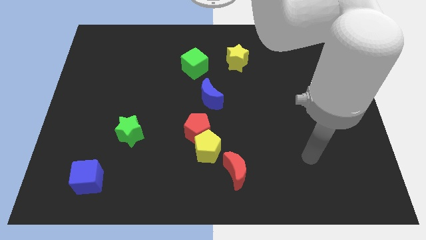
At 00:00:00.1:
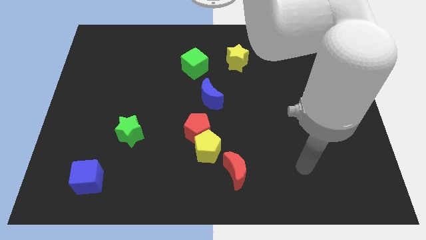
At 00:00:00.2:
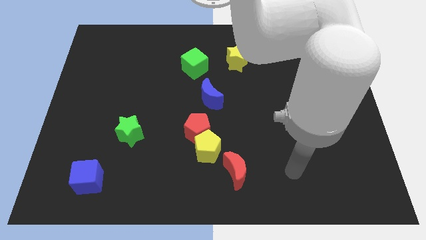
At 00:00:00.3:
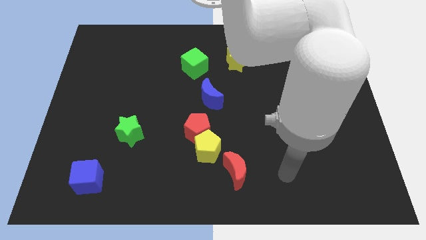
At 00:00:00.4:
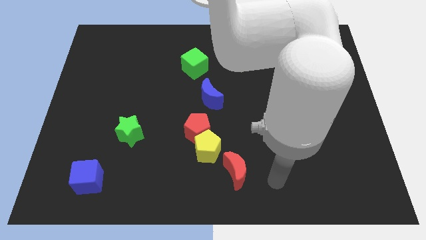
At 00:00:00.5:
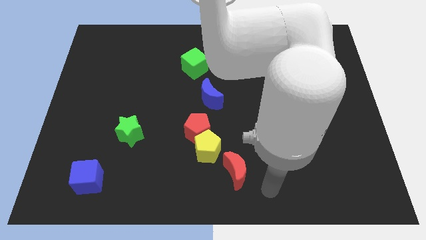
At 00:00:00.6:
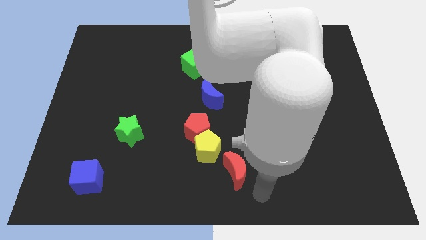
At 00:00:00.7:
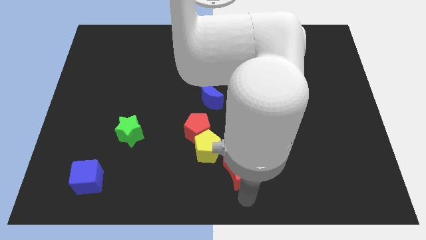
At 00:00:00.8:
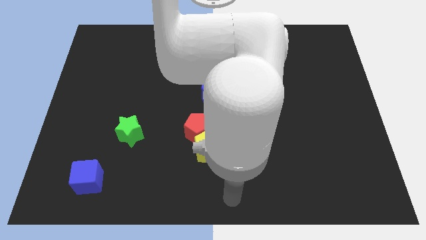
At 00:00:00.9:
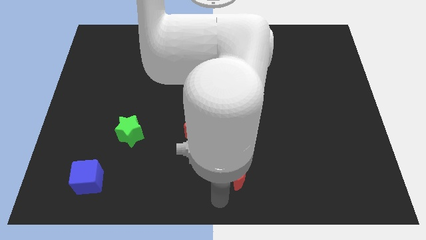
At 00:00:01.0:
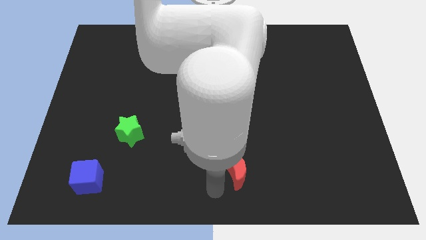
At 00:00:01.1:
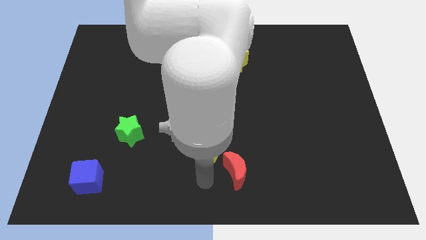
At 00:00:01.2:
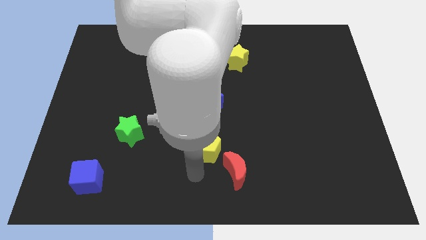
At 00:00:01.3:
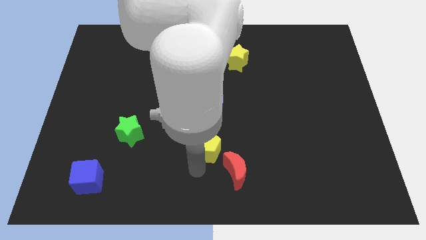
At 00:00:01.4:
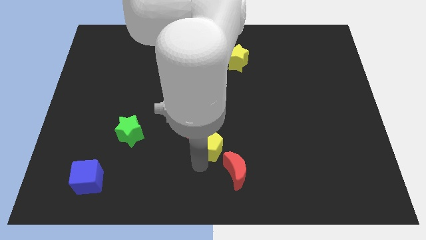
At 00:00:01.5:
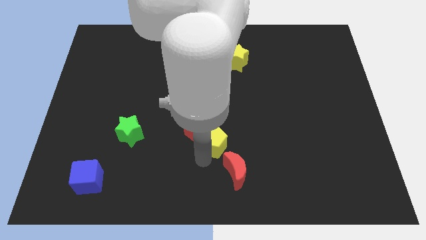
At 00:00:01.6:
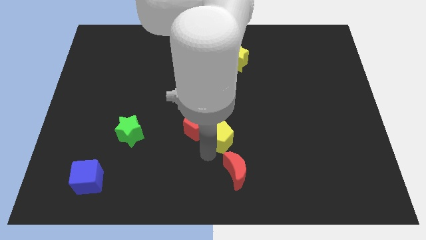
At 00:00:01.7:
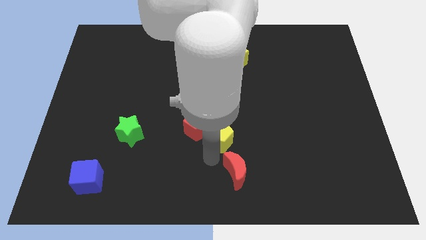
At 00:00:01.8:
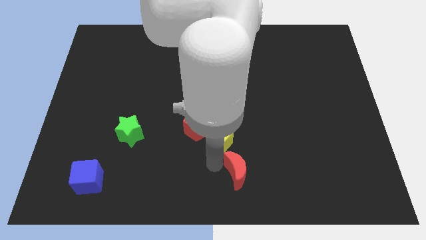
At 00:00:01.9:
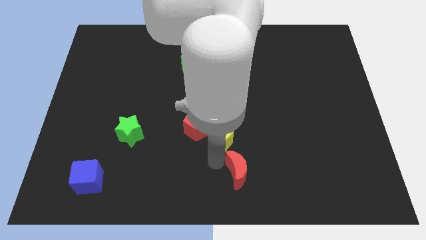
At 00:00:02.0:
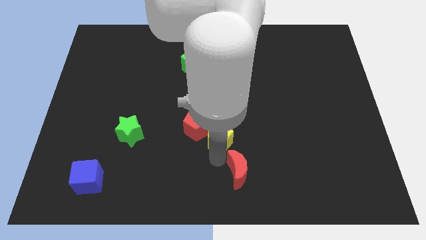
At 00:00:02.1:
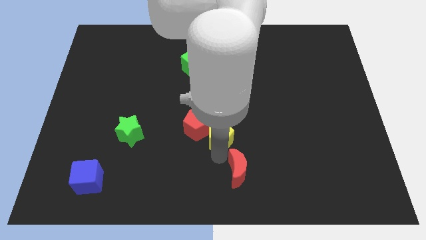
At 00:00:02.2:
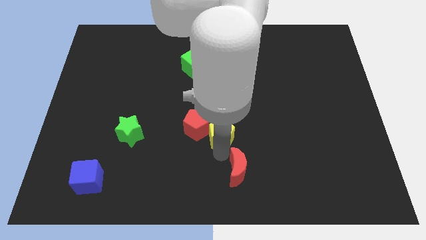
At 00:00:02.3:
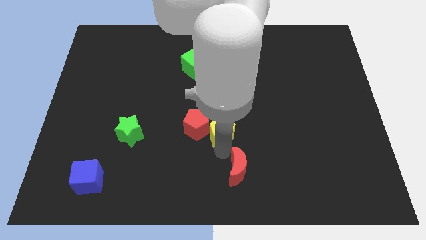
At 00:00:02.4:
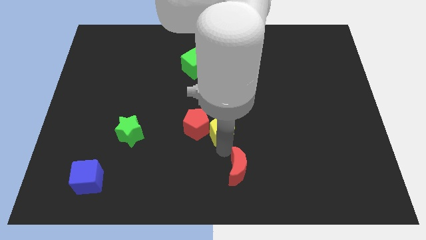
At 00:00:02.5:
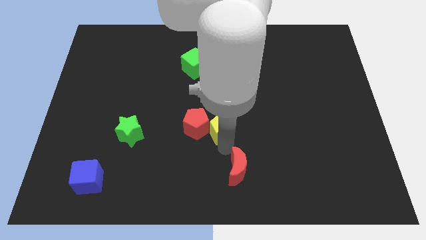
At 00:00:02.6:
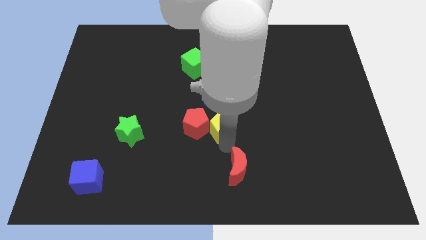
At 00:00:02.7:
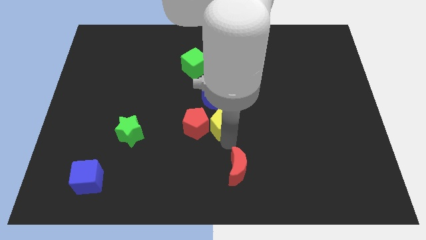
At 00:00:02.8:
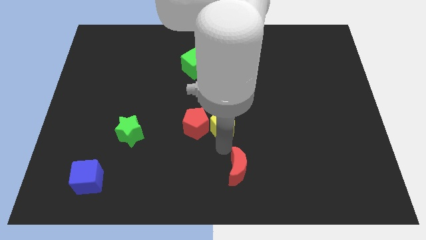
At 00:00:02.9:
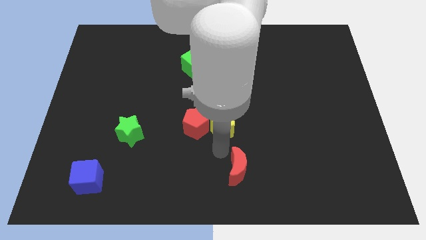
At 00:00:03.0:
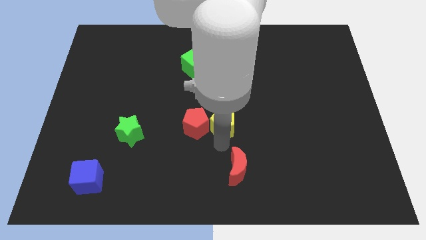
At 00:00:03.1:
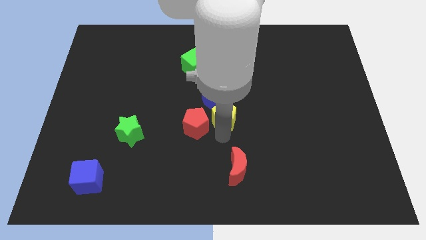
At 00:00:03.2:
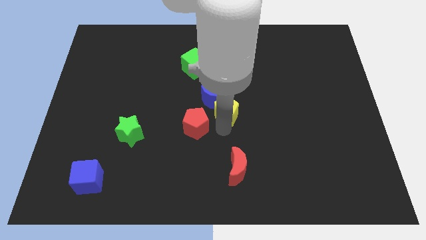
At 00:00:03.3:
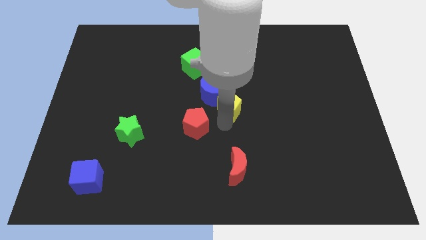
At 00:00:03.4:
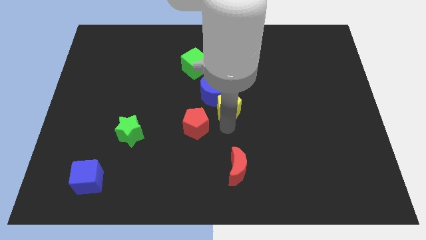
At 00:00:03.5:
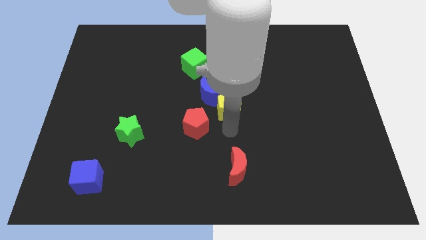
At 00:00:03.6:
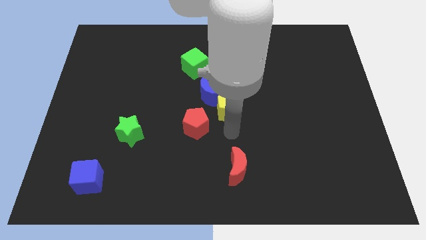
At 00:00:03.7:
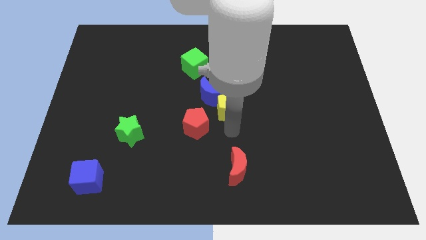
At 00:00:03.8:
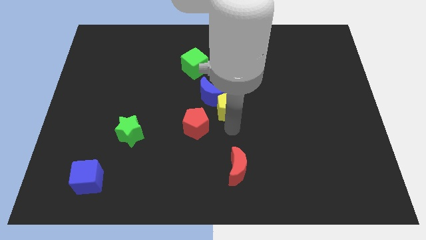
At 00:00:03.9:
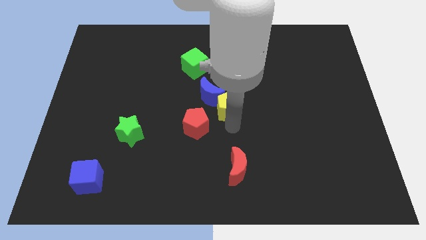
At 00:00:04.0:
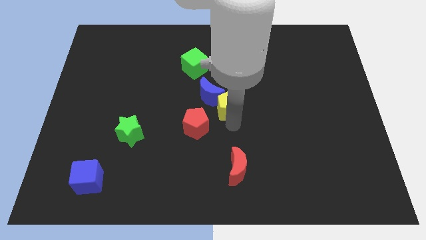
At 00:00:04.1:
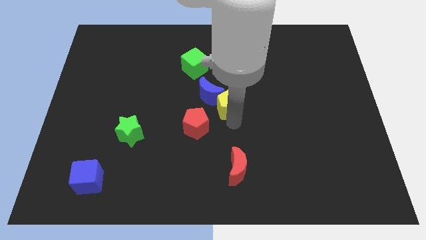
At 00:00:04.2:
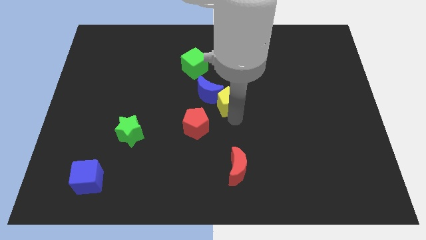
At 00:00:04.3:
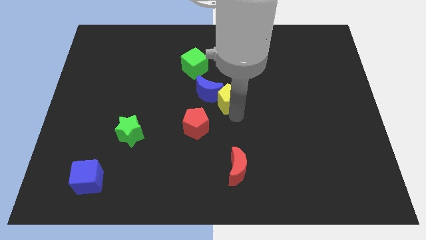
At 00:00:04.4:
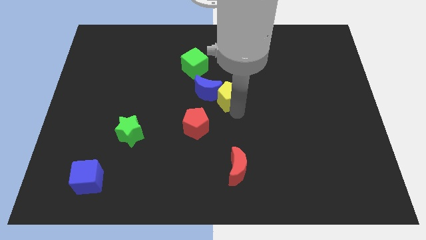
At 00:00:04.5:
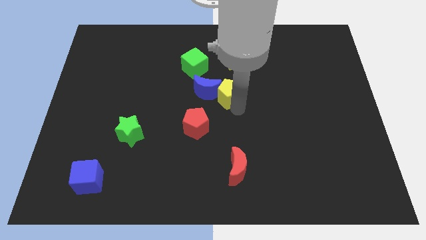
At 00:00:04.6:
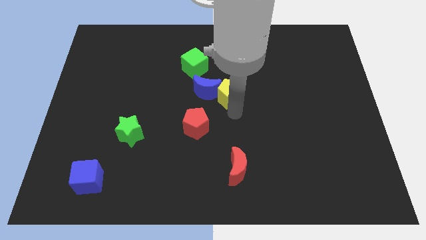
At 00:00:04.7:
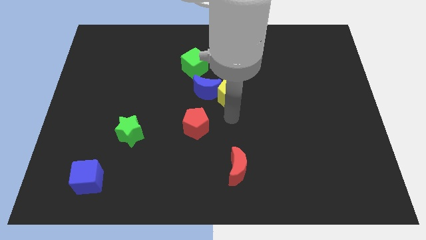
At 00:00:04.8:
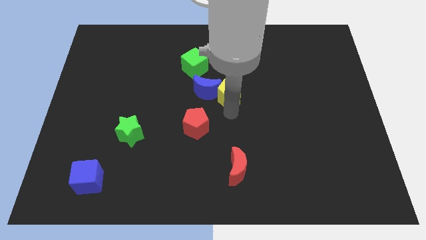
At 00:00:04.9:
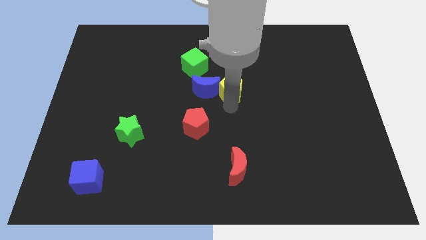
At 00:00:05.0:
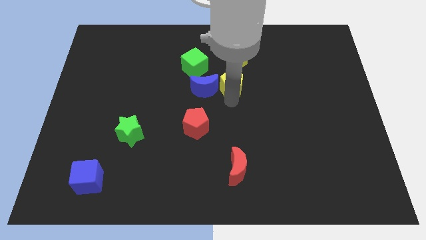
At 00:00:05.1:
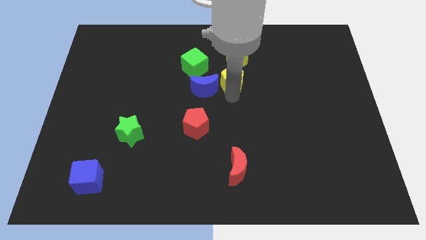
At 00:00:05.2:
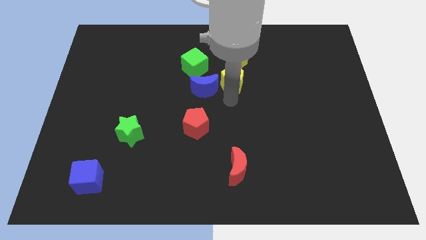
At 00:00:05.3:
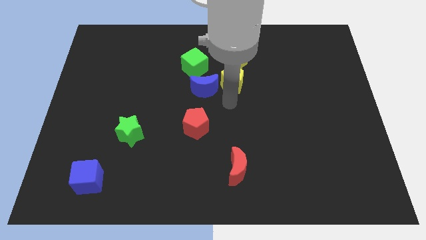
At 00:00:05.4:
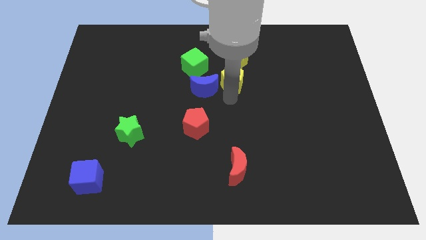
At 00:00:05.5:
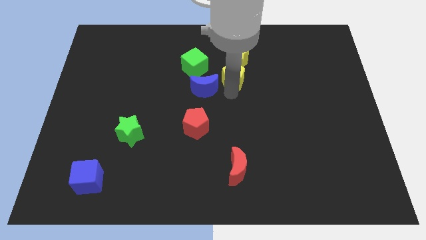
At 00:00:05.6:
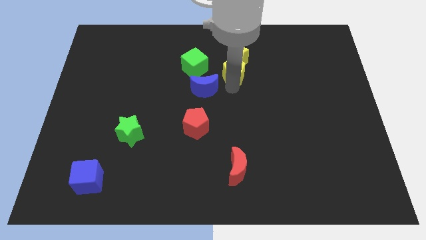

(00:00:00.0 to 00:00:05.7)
push the yellow pentagon next to the yellow star
